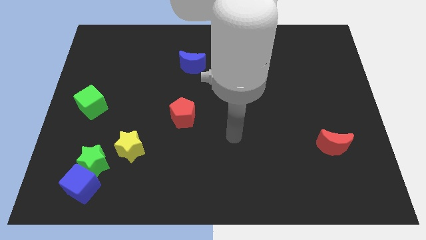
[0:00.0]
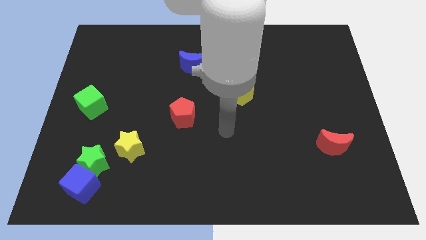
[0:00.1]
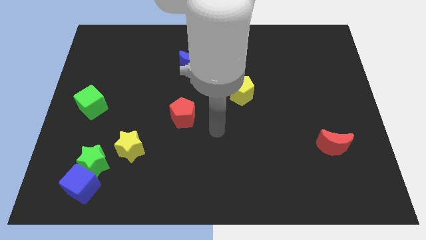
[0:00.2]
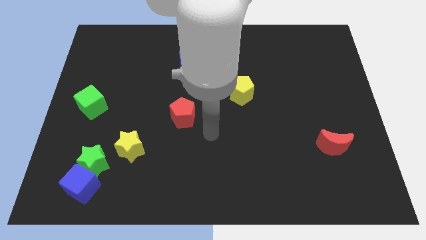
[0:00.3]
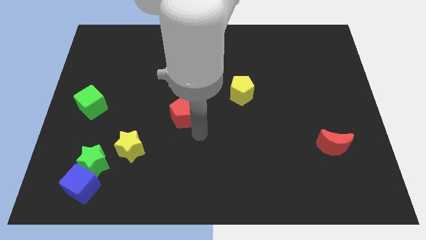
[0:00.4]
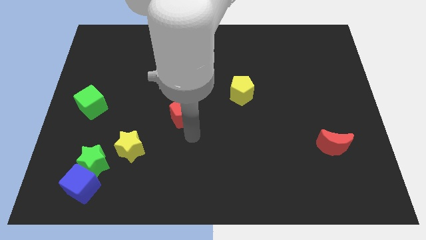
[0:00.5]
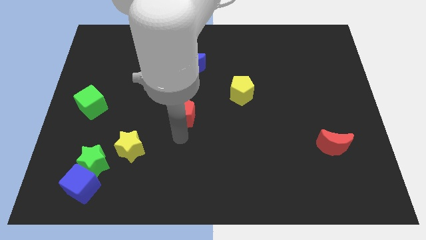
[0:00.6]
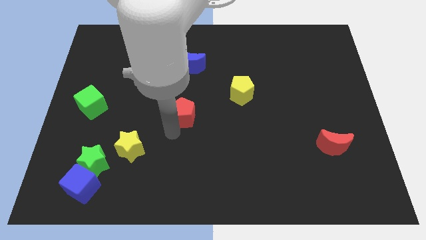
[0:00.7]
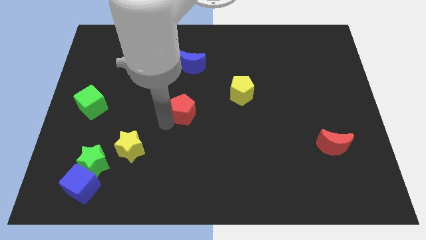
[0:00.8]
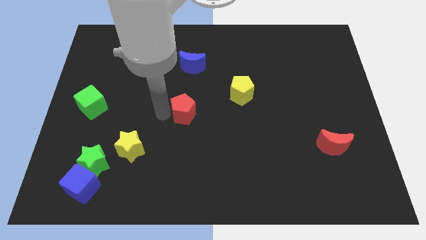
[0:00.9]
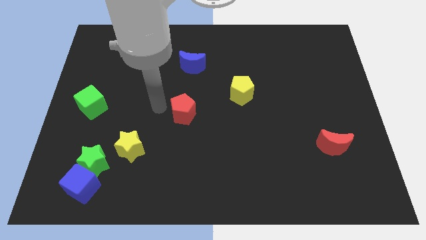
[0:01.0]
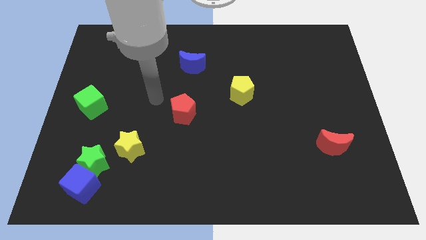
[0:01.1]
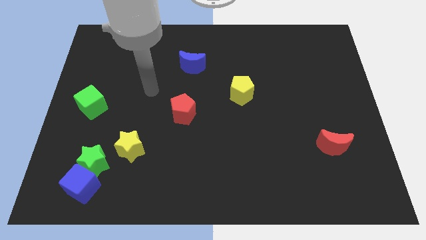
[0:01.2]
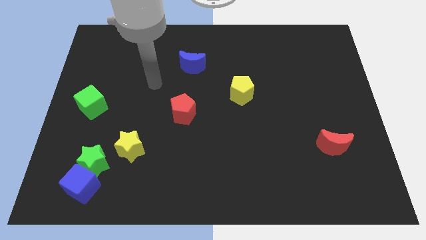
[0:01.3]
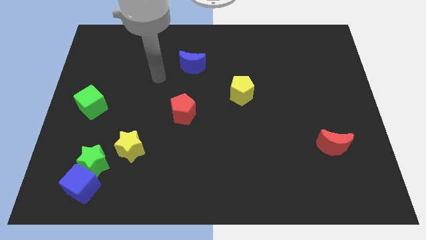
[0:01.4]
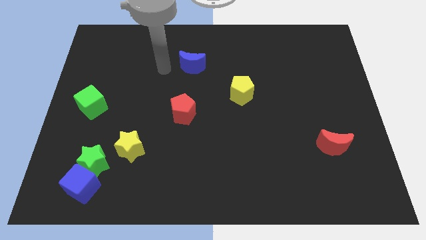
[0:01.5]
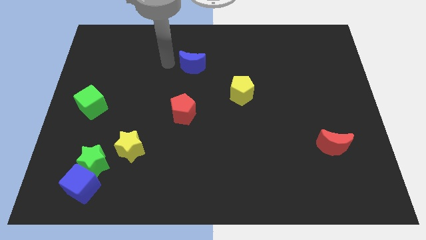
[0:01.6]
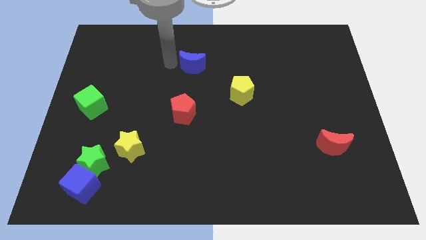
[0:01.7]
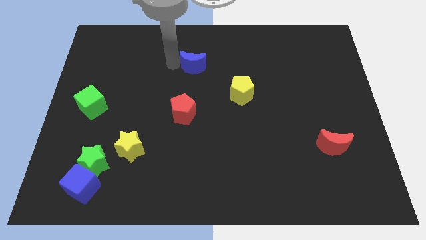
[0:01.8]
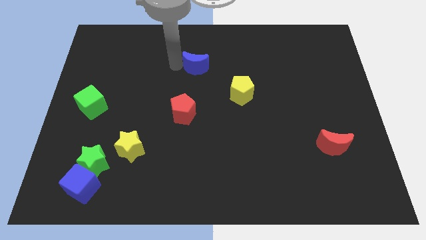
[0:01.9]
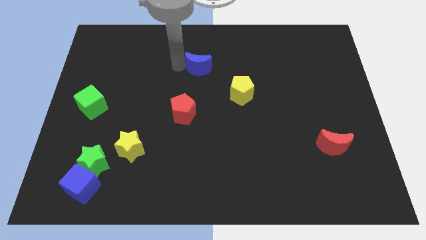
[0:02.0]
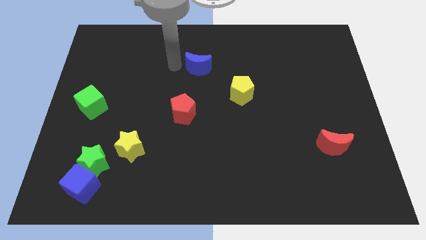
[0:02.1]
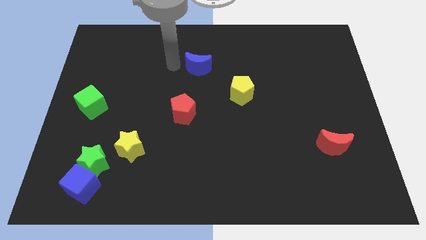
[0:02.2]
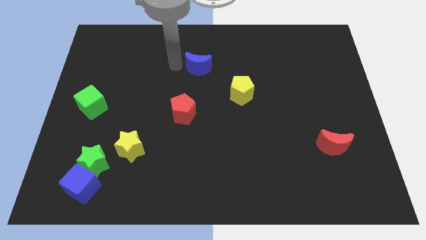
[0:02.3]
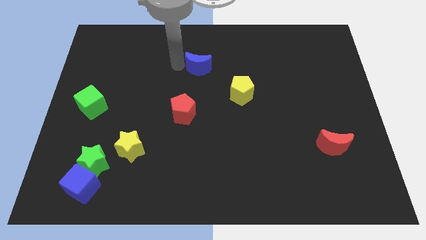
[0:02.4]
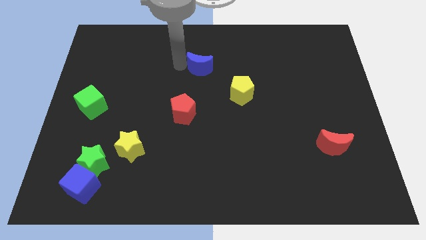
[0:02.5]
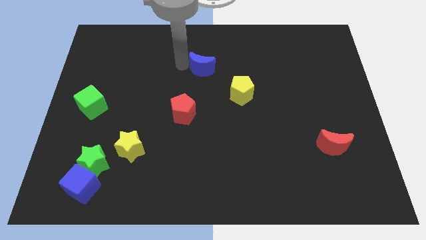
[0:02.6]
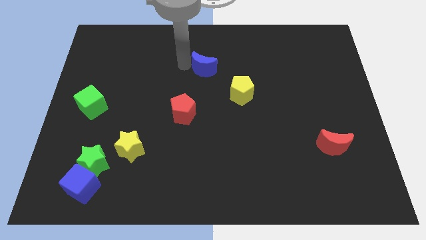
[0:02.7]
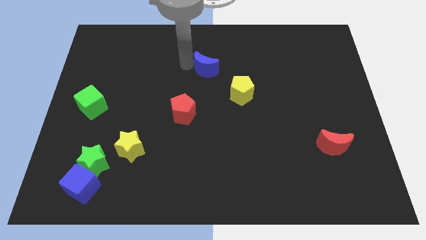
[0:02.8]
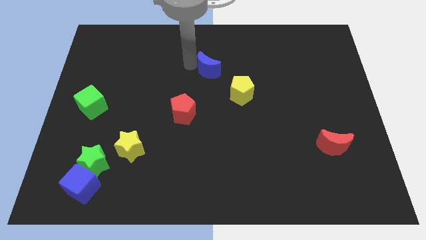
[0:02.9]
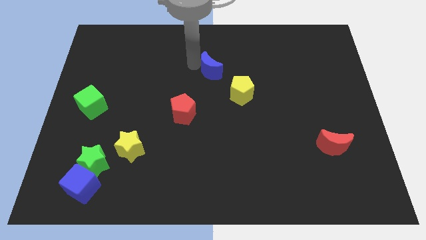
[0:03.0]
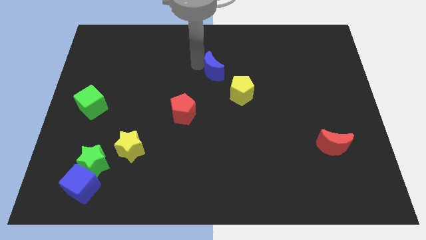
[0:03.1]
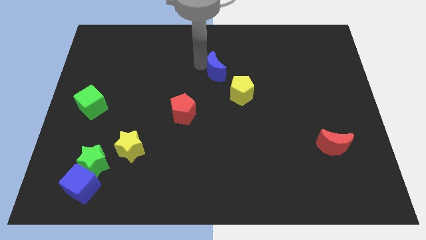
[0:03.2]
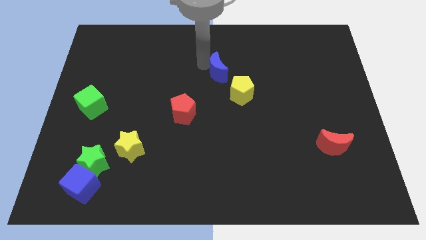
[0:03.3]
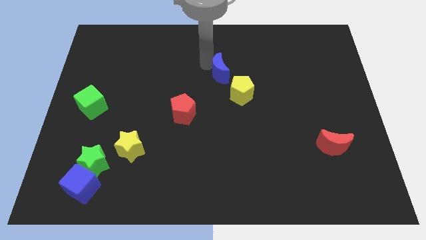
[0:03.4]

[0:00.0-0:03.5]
push the blue moon a little right

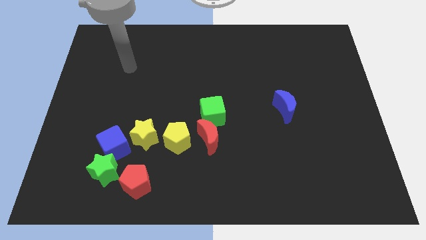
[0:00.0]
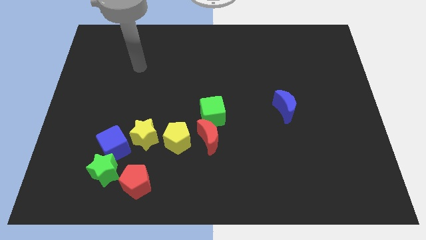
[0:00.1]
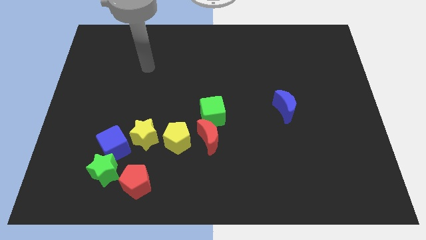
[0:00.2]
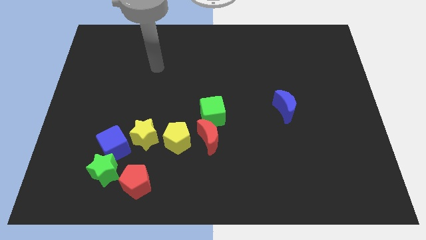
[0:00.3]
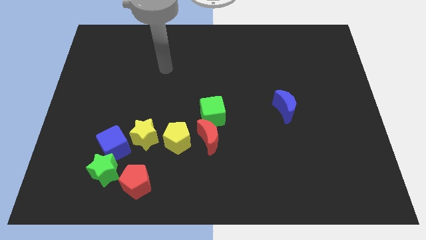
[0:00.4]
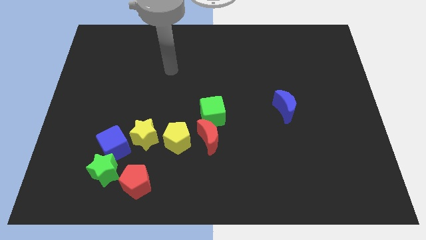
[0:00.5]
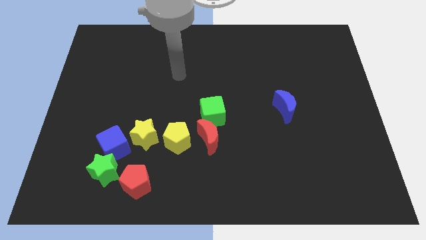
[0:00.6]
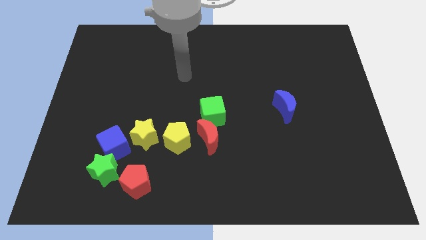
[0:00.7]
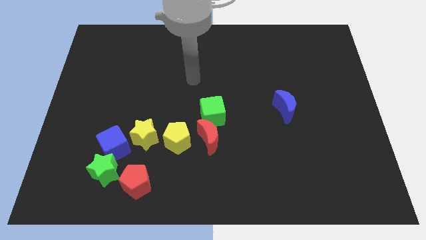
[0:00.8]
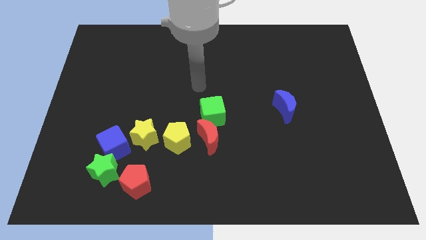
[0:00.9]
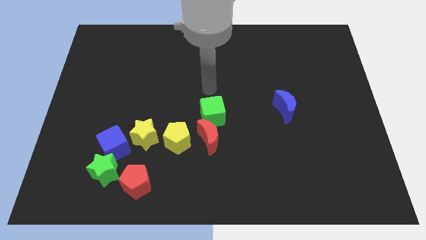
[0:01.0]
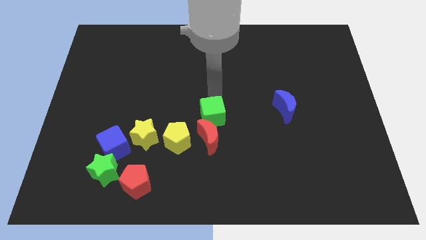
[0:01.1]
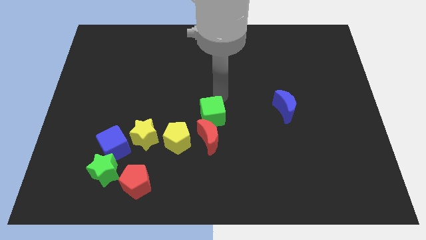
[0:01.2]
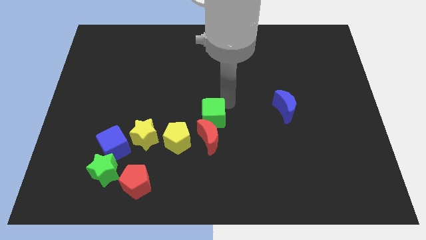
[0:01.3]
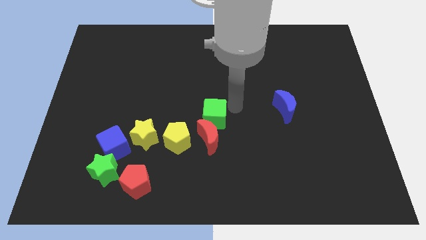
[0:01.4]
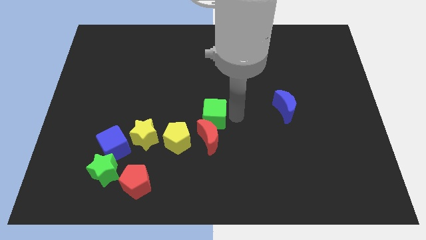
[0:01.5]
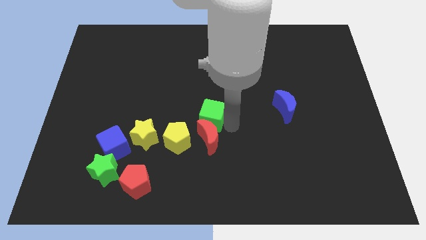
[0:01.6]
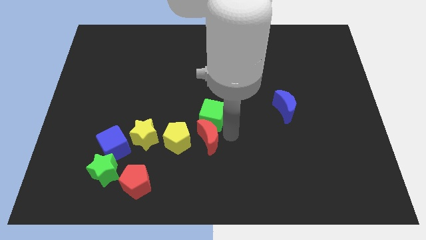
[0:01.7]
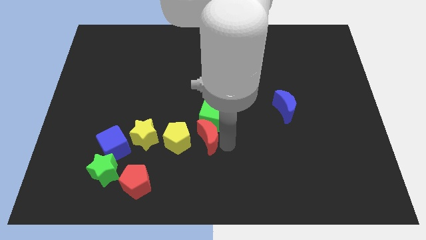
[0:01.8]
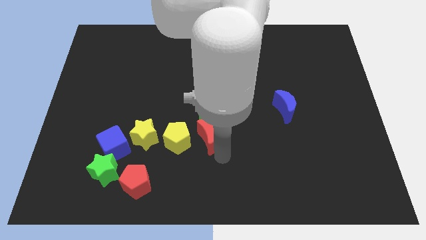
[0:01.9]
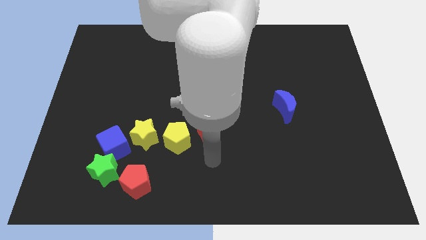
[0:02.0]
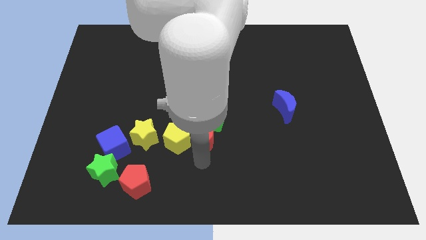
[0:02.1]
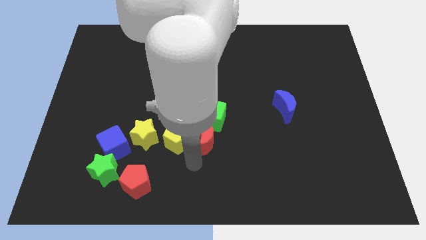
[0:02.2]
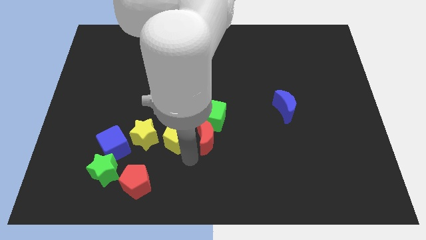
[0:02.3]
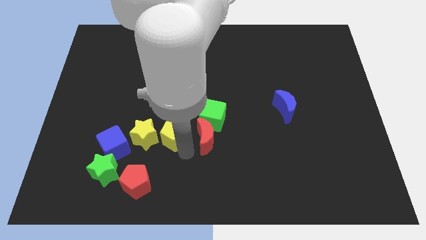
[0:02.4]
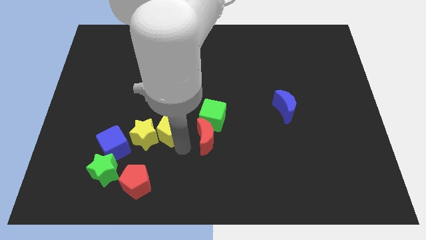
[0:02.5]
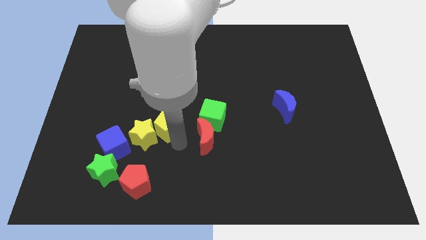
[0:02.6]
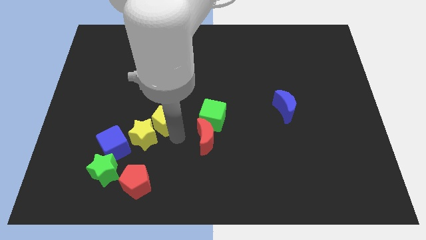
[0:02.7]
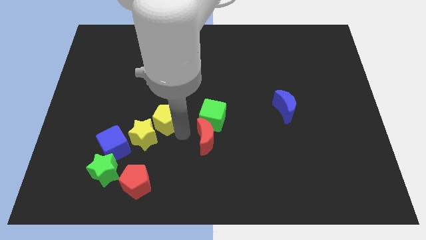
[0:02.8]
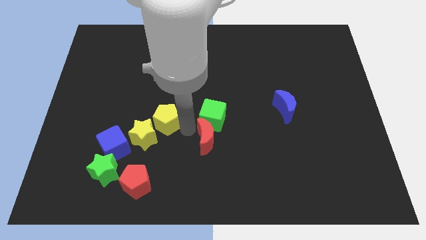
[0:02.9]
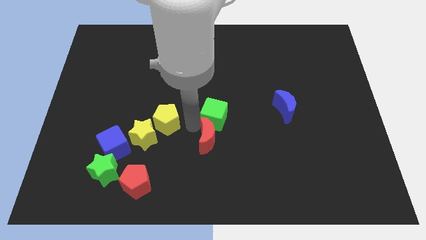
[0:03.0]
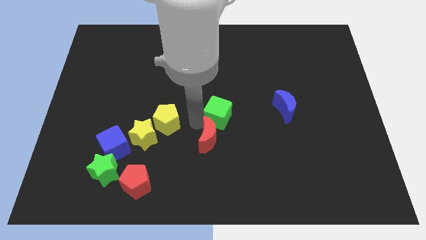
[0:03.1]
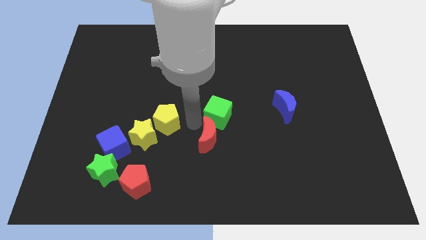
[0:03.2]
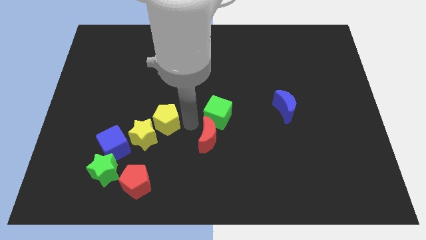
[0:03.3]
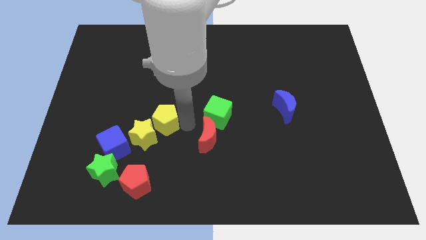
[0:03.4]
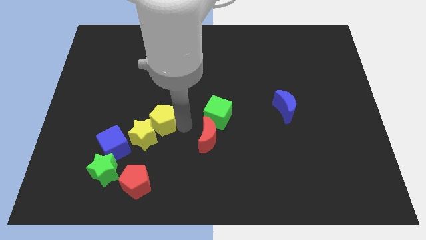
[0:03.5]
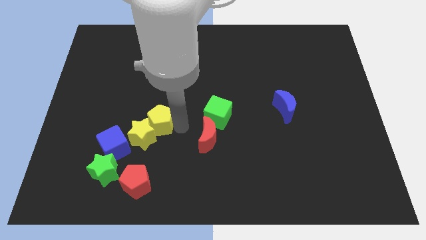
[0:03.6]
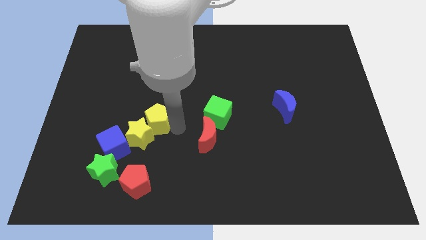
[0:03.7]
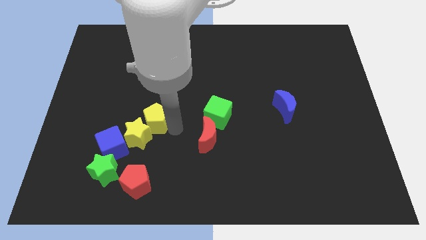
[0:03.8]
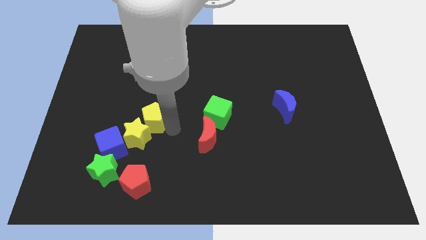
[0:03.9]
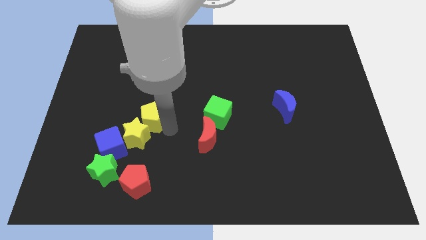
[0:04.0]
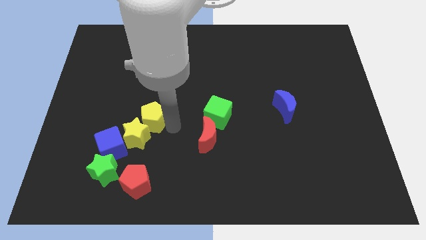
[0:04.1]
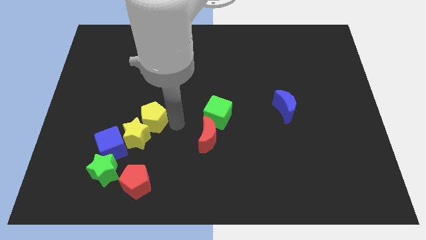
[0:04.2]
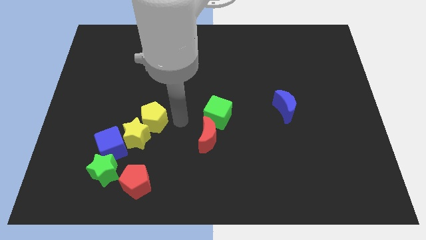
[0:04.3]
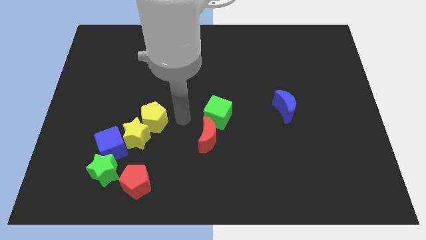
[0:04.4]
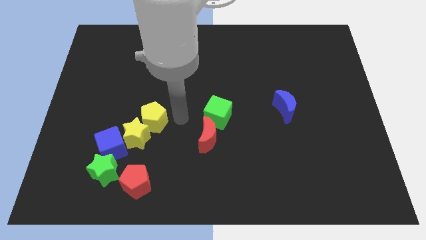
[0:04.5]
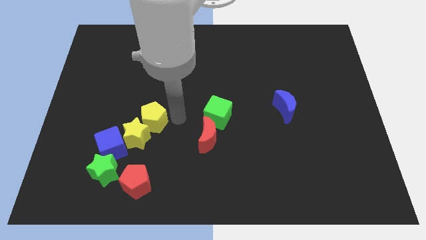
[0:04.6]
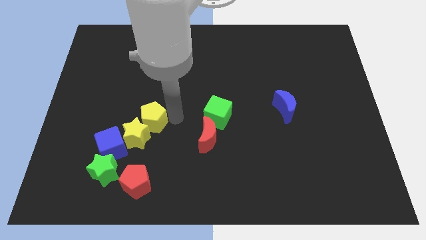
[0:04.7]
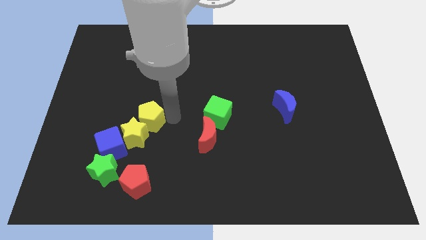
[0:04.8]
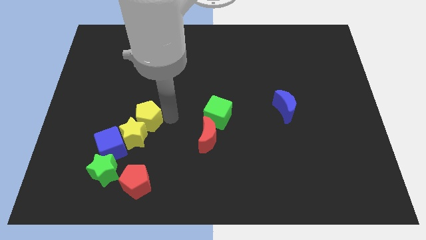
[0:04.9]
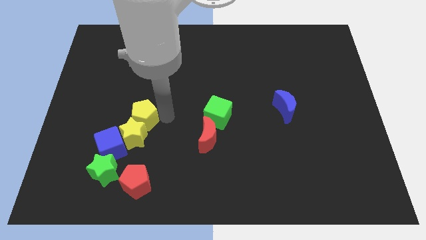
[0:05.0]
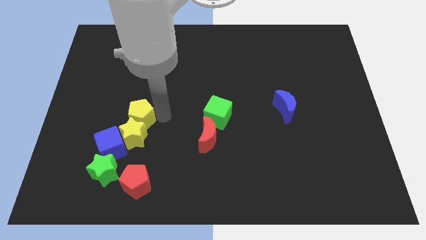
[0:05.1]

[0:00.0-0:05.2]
slightly push the yellow pentagon to the left
